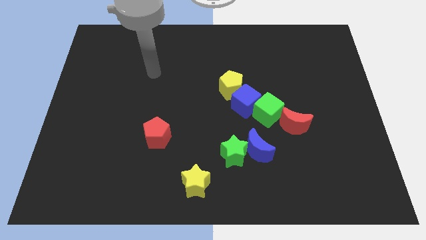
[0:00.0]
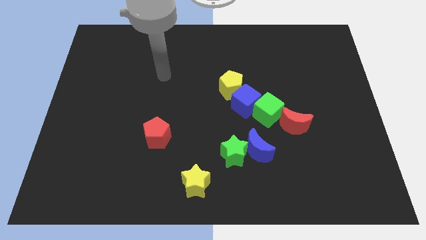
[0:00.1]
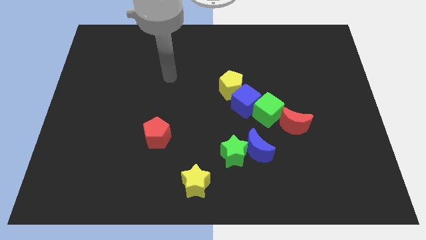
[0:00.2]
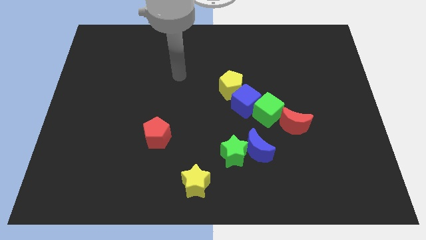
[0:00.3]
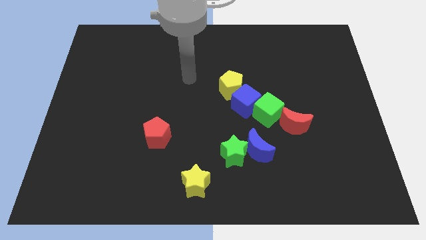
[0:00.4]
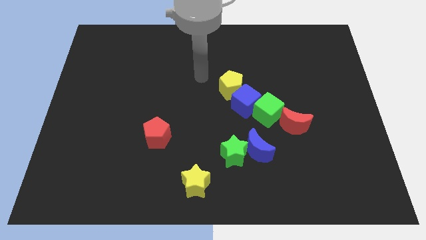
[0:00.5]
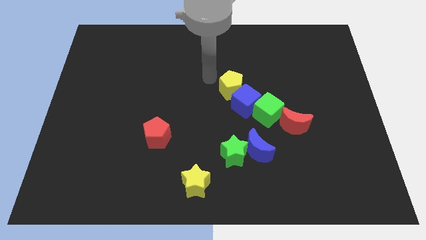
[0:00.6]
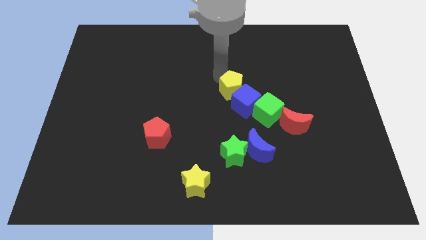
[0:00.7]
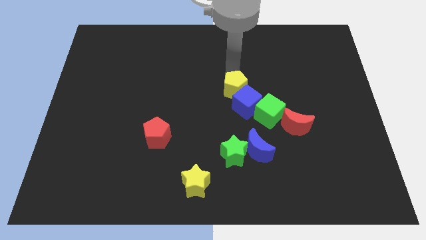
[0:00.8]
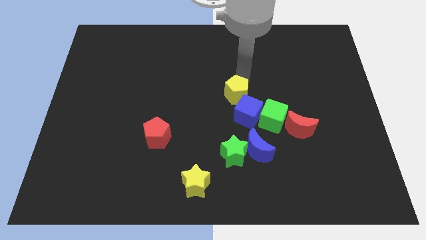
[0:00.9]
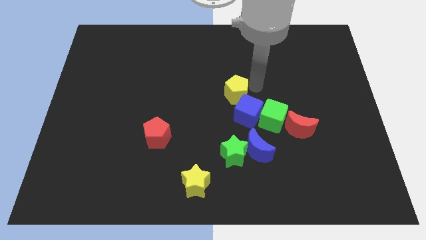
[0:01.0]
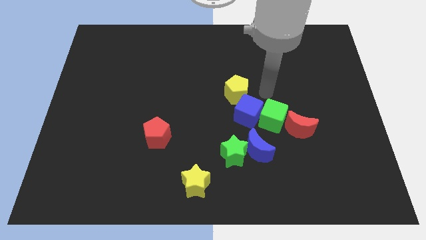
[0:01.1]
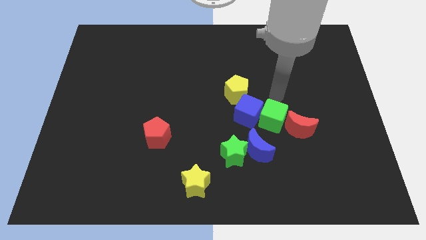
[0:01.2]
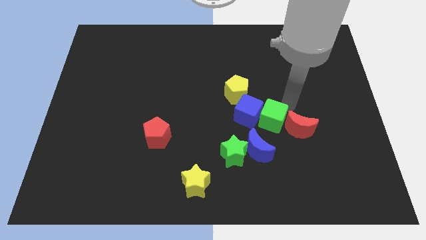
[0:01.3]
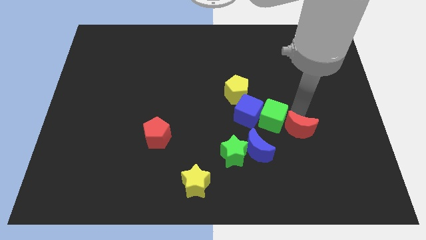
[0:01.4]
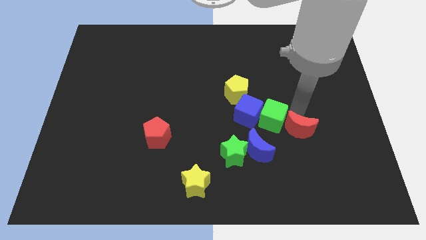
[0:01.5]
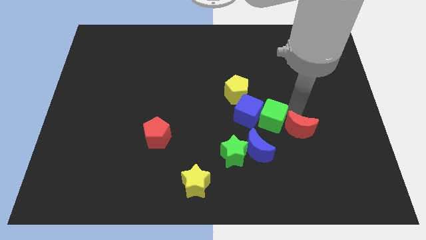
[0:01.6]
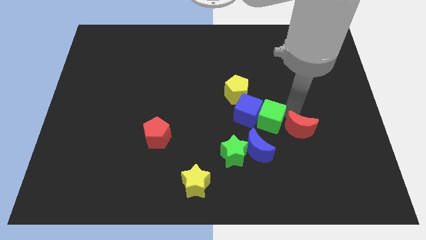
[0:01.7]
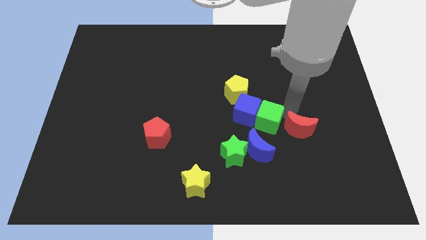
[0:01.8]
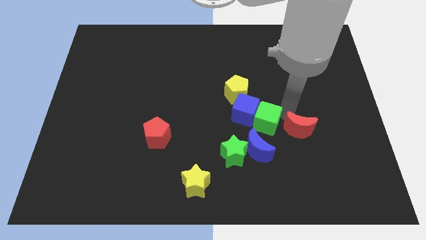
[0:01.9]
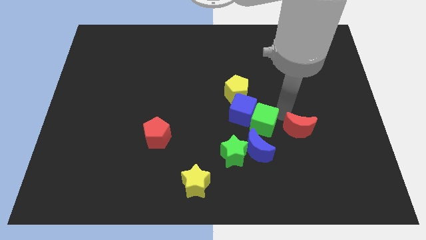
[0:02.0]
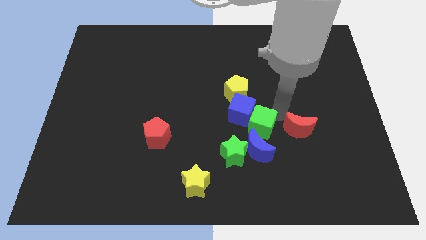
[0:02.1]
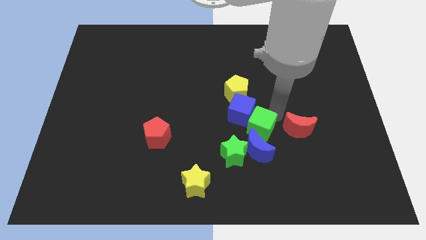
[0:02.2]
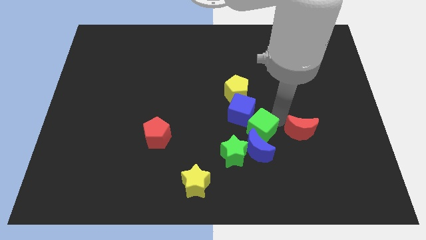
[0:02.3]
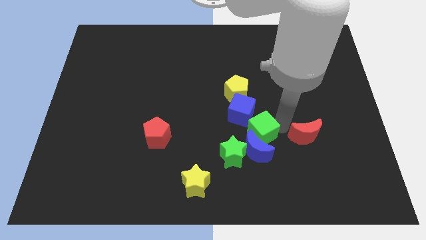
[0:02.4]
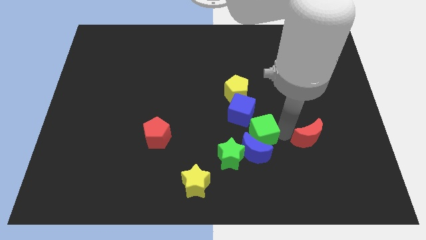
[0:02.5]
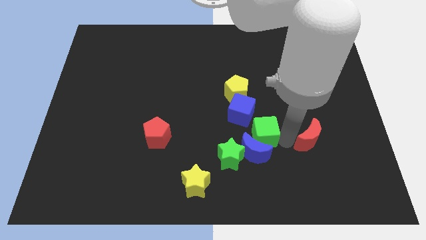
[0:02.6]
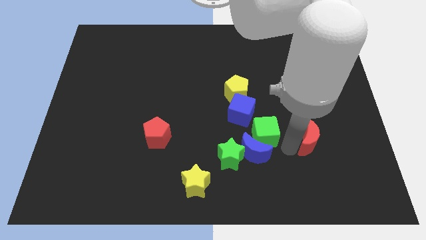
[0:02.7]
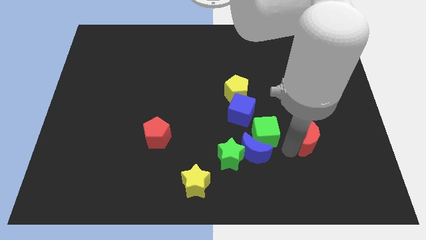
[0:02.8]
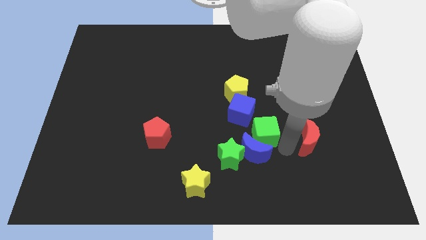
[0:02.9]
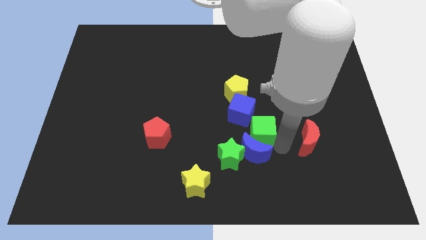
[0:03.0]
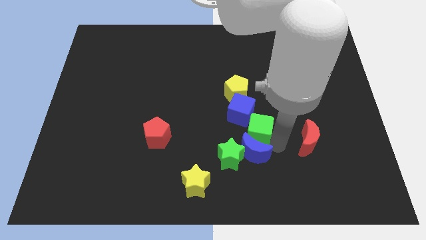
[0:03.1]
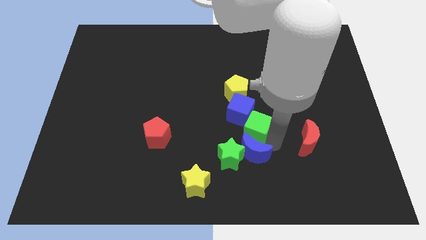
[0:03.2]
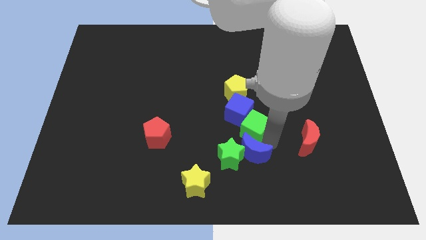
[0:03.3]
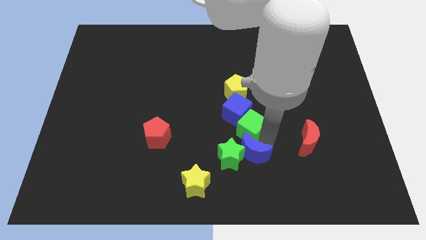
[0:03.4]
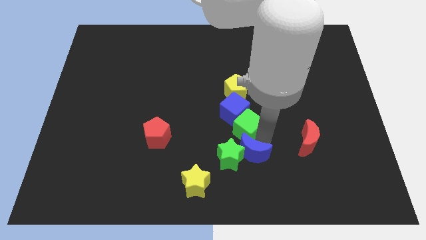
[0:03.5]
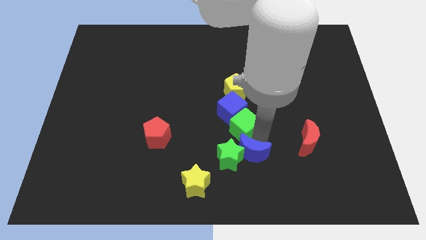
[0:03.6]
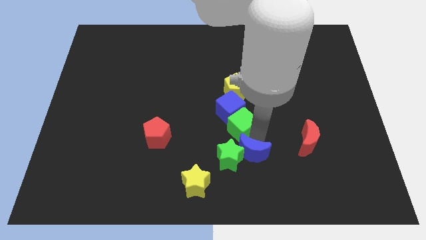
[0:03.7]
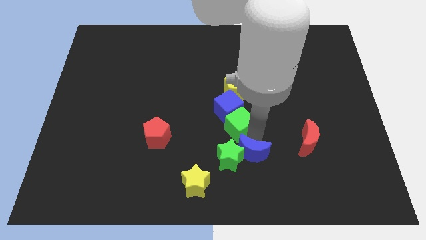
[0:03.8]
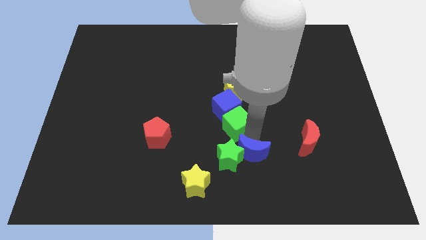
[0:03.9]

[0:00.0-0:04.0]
slightly move the green cube left

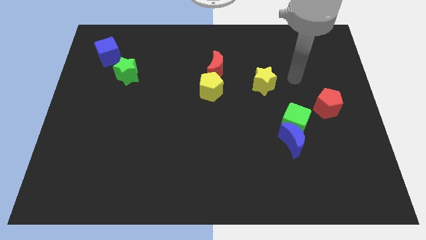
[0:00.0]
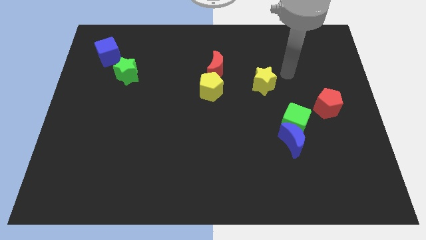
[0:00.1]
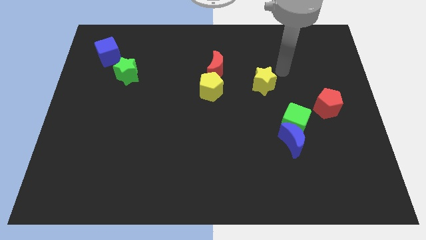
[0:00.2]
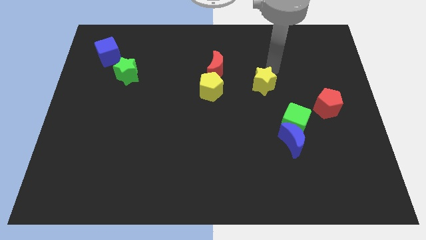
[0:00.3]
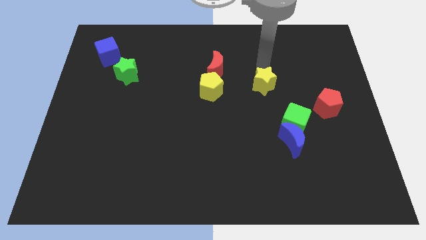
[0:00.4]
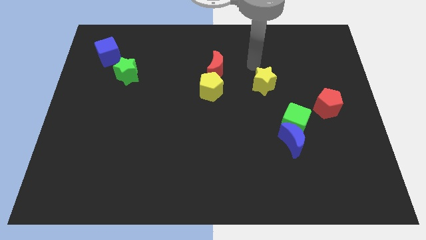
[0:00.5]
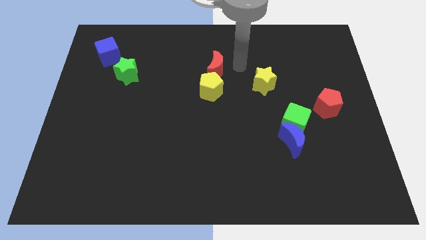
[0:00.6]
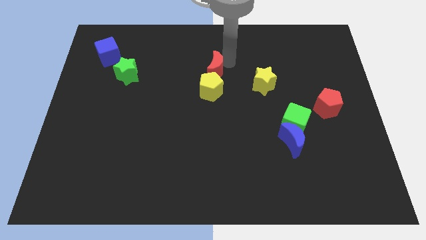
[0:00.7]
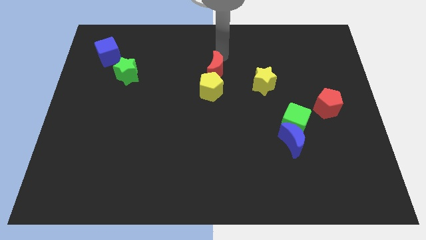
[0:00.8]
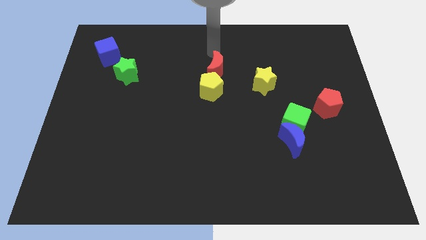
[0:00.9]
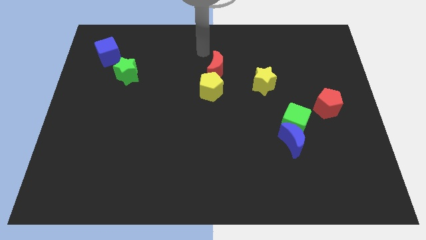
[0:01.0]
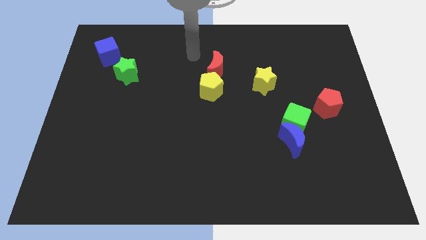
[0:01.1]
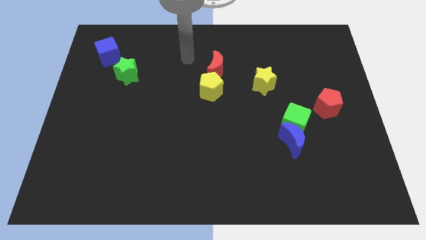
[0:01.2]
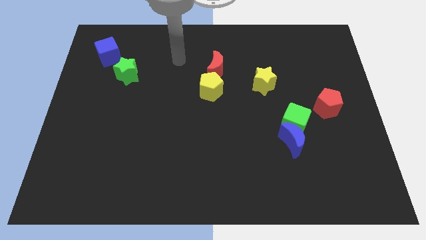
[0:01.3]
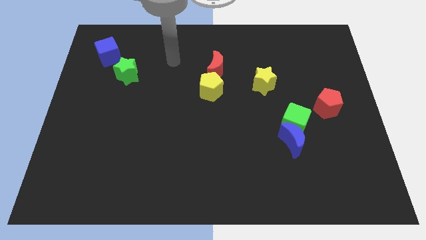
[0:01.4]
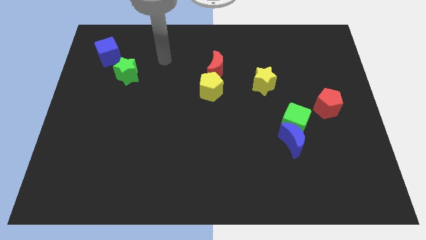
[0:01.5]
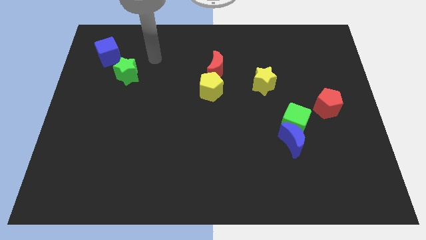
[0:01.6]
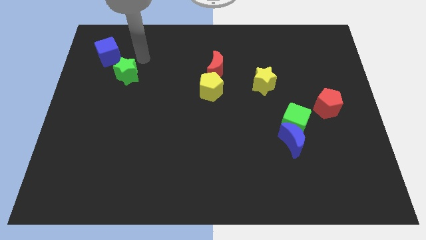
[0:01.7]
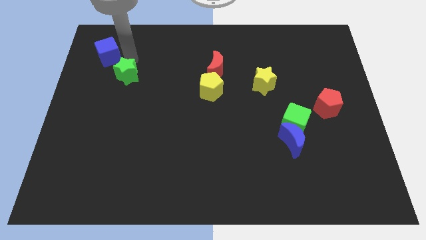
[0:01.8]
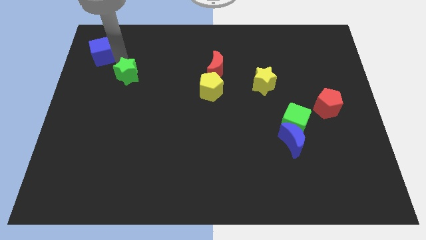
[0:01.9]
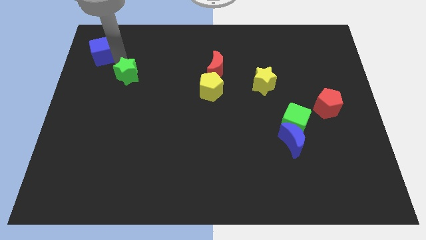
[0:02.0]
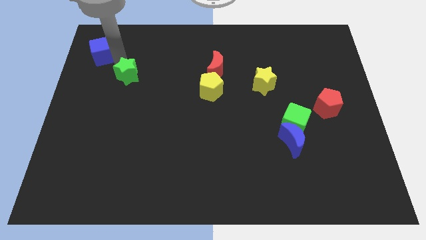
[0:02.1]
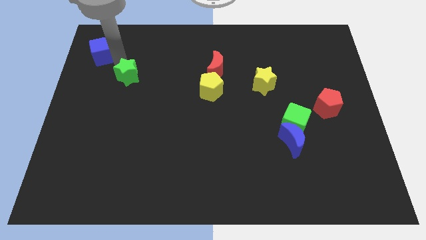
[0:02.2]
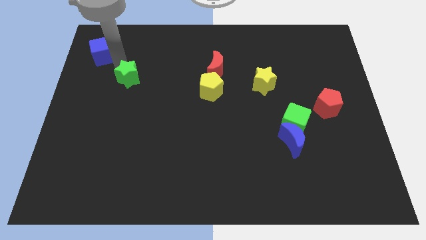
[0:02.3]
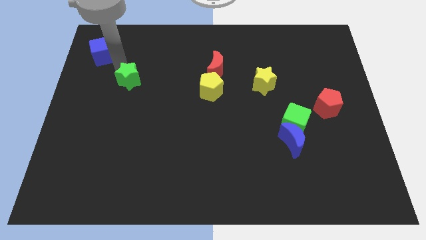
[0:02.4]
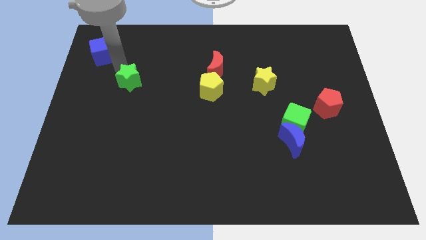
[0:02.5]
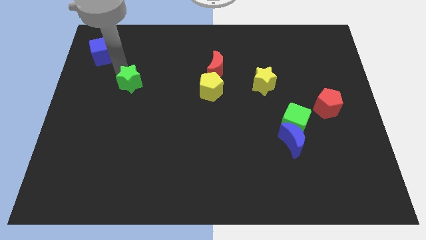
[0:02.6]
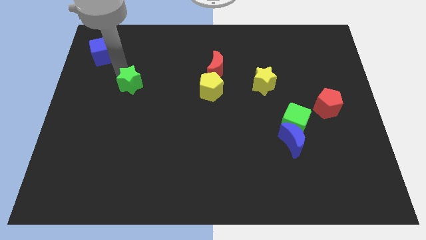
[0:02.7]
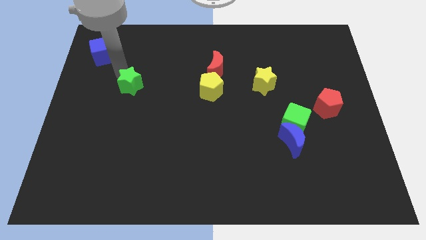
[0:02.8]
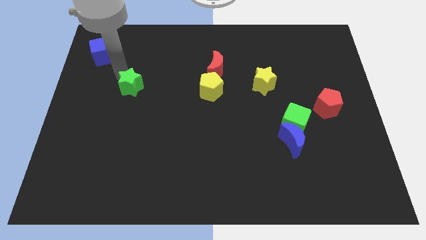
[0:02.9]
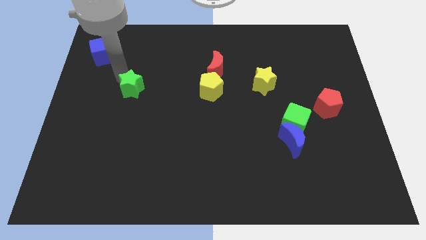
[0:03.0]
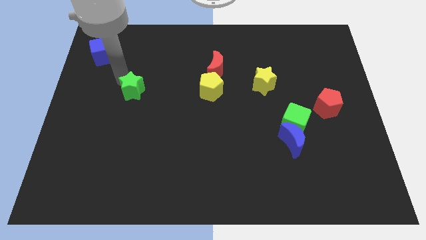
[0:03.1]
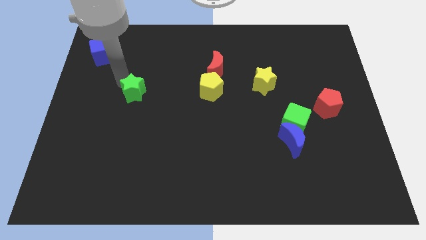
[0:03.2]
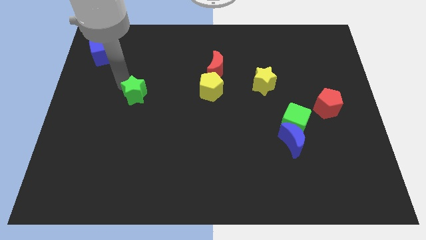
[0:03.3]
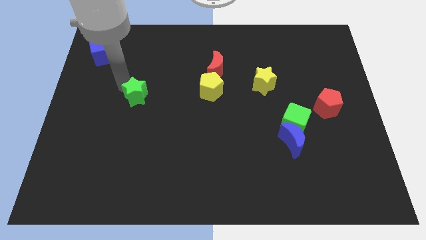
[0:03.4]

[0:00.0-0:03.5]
slightly move the green star downwards and right diagonally

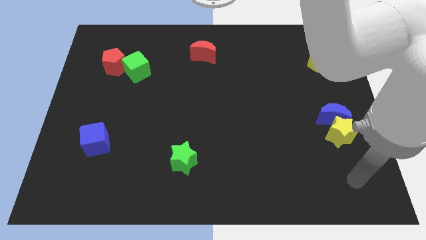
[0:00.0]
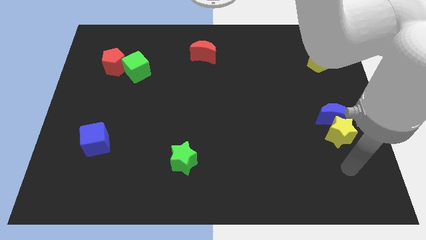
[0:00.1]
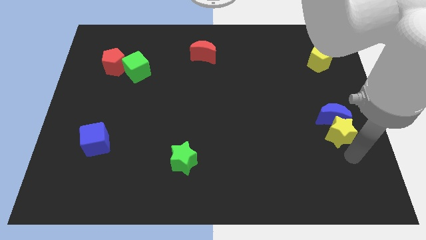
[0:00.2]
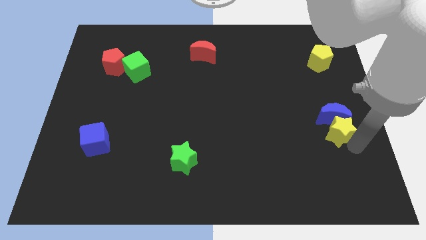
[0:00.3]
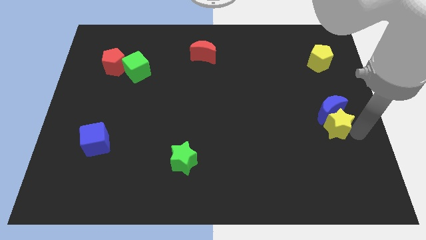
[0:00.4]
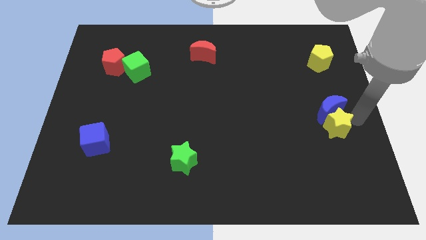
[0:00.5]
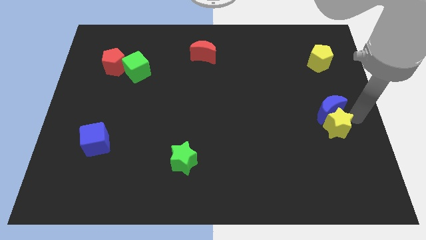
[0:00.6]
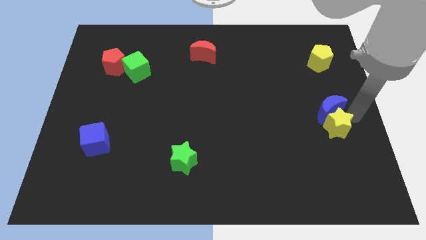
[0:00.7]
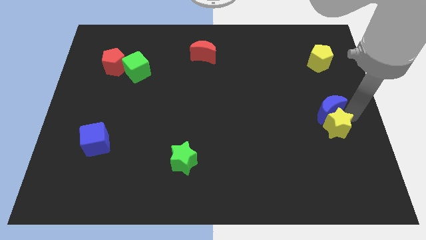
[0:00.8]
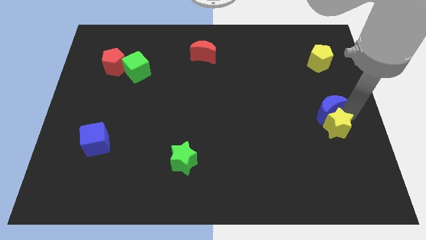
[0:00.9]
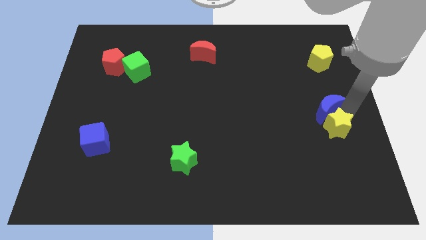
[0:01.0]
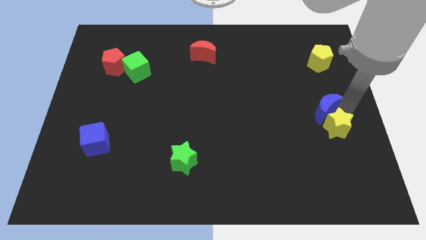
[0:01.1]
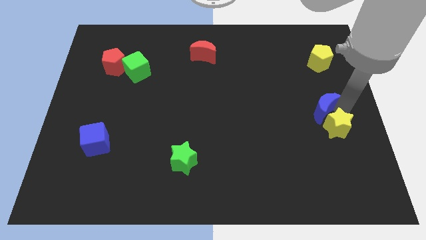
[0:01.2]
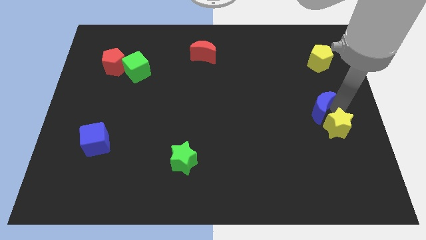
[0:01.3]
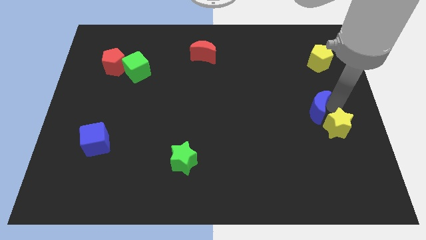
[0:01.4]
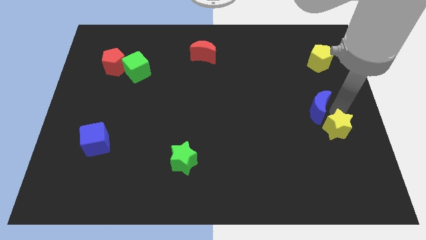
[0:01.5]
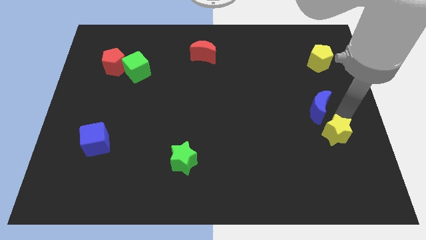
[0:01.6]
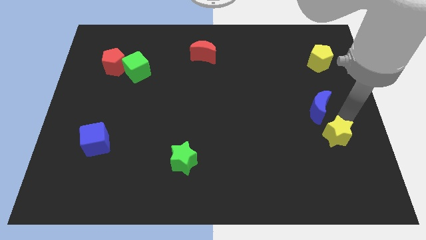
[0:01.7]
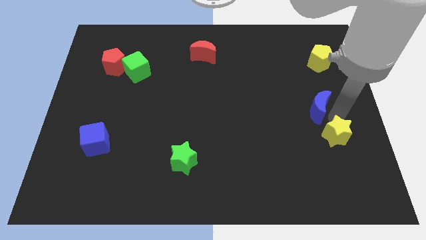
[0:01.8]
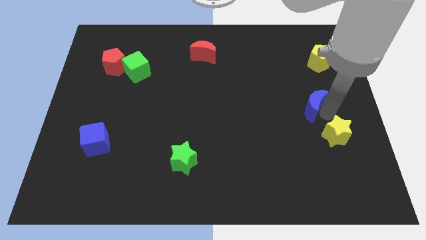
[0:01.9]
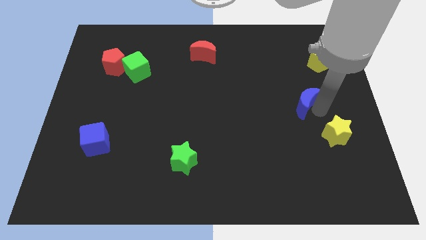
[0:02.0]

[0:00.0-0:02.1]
slightly slide the blue moon upwards and to the left
